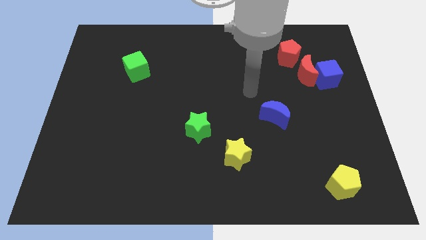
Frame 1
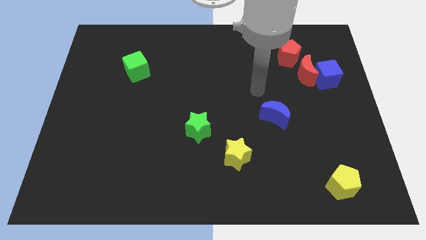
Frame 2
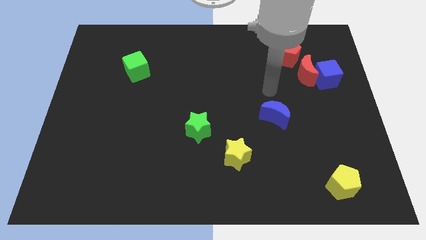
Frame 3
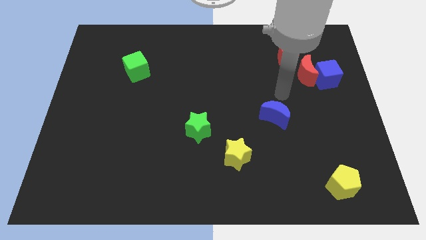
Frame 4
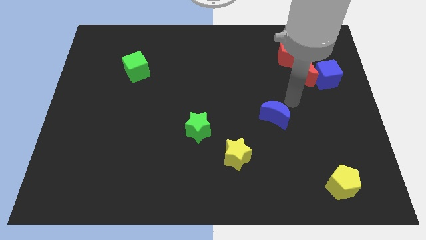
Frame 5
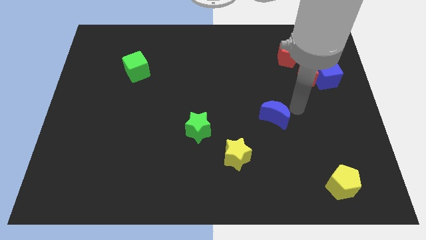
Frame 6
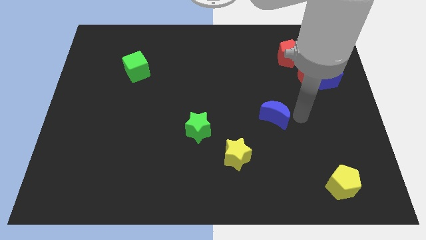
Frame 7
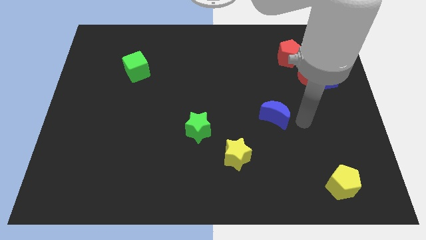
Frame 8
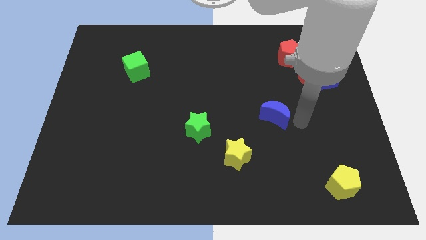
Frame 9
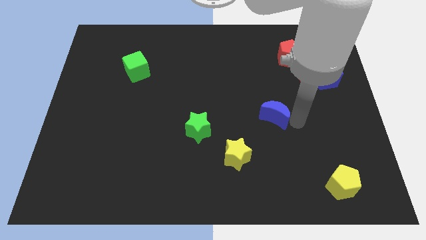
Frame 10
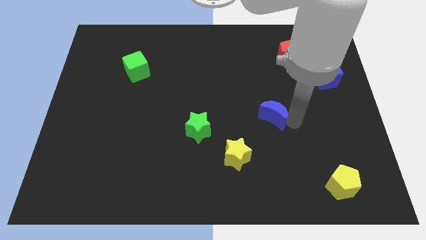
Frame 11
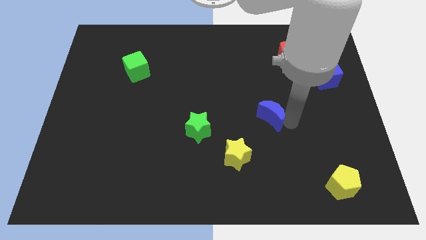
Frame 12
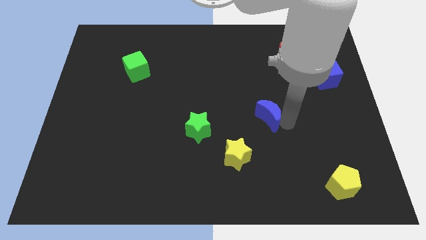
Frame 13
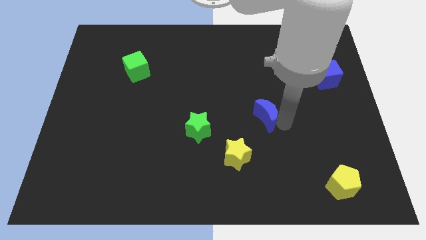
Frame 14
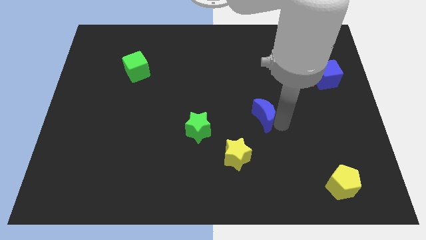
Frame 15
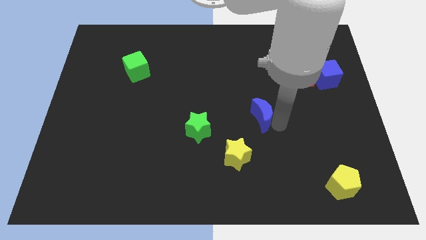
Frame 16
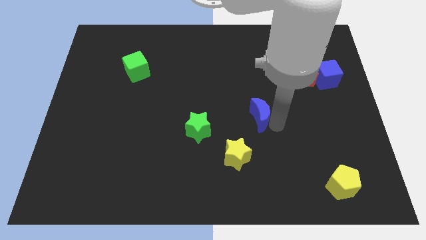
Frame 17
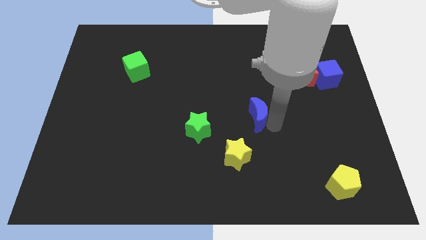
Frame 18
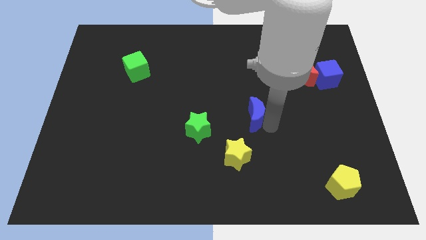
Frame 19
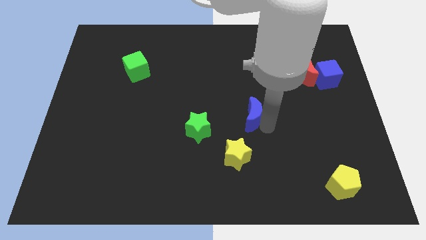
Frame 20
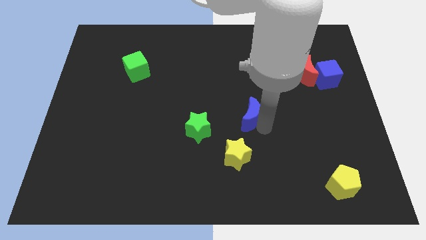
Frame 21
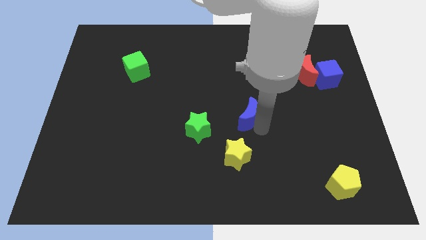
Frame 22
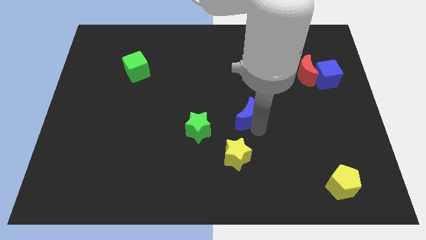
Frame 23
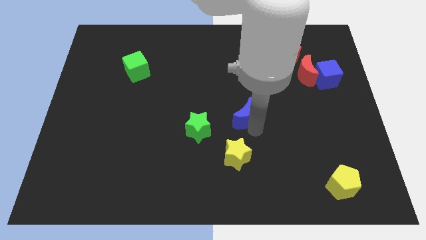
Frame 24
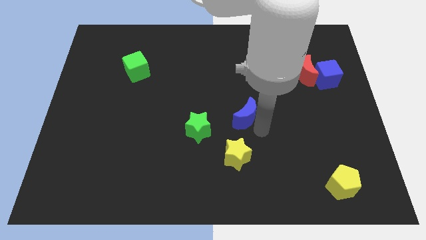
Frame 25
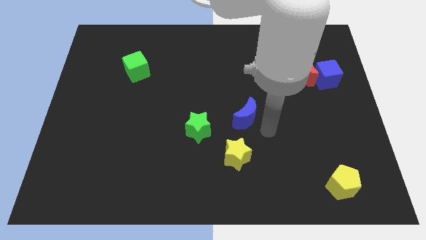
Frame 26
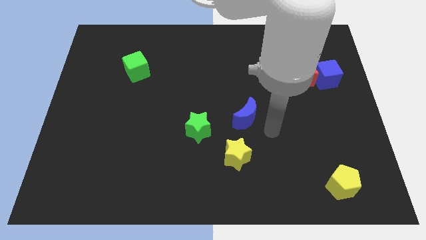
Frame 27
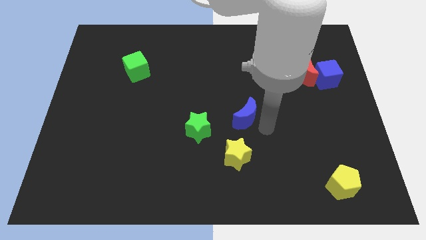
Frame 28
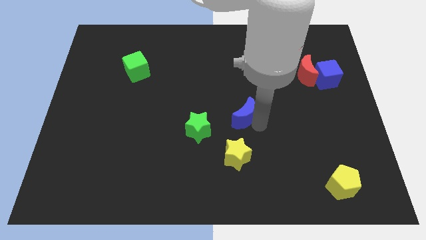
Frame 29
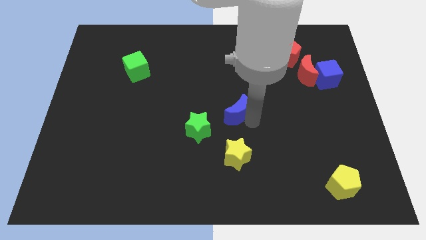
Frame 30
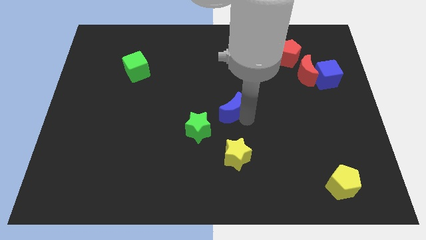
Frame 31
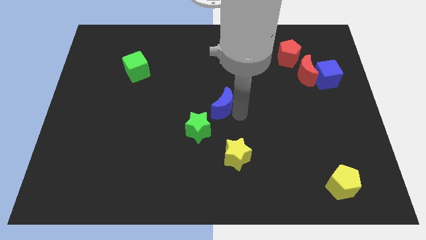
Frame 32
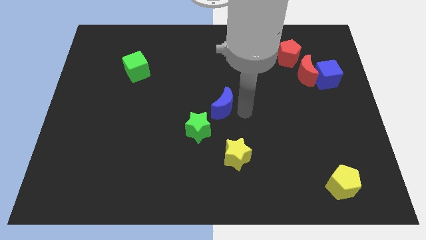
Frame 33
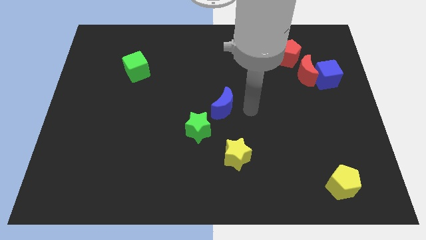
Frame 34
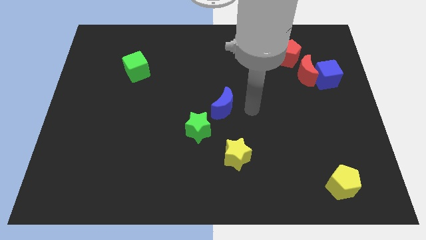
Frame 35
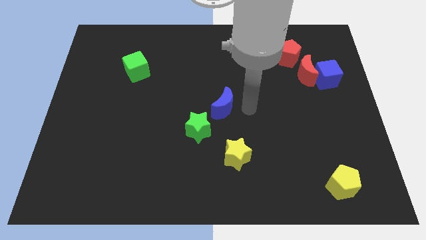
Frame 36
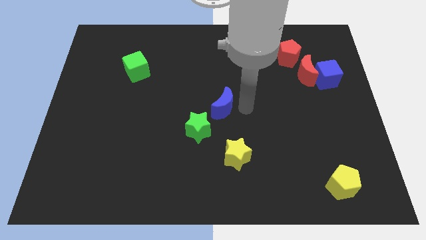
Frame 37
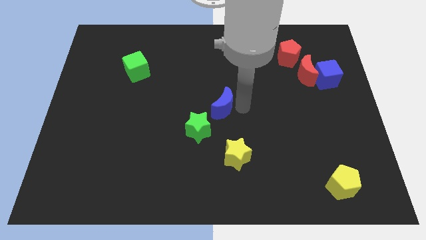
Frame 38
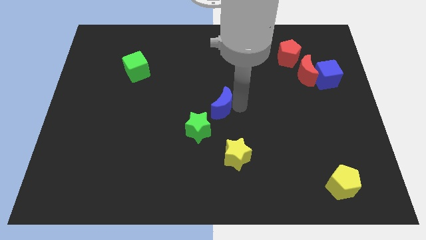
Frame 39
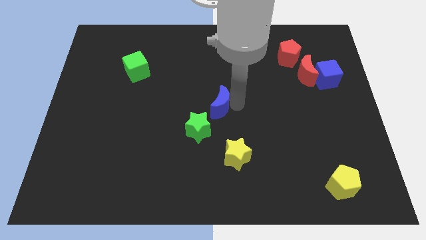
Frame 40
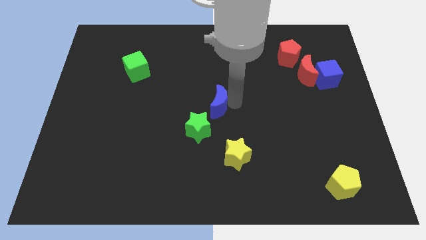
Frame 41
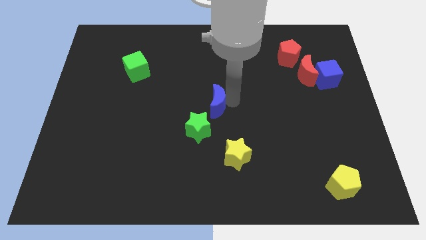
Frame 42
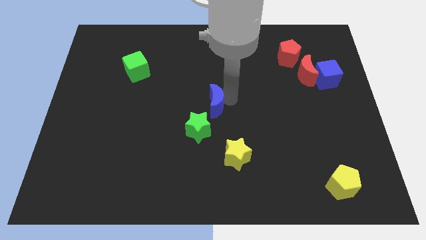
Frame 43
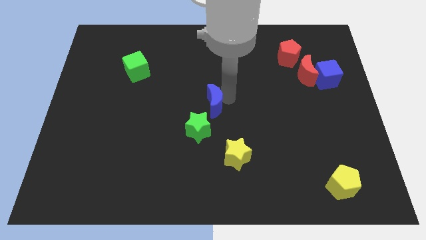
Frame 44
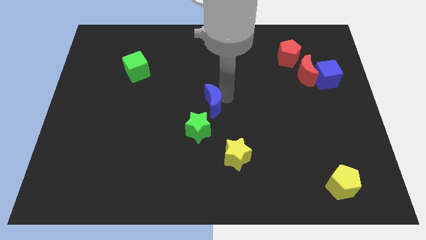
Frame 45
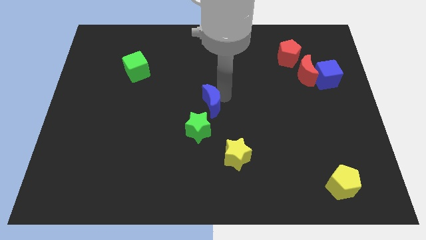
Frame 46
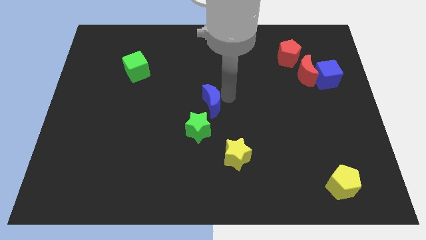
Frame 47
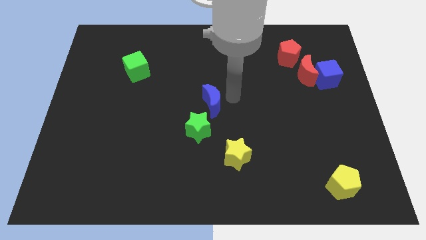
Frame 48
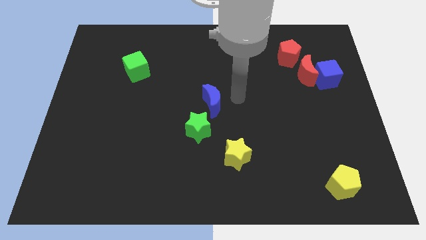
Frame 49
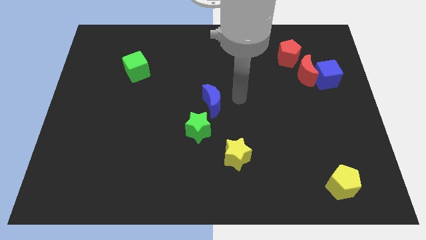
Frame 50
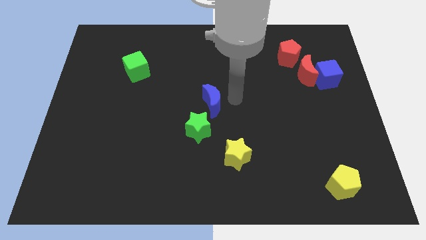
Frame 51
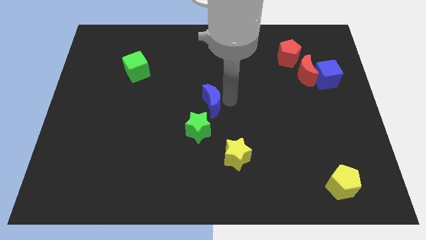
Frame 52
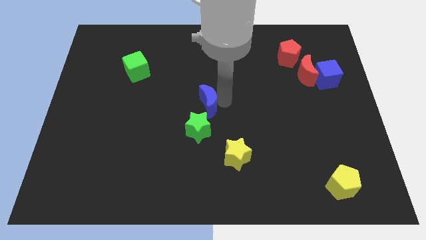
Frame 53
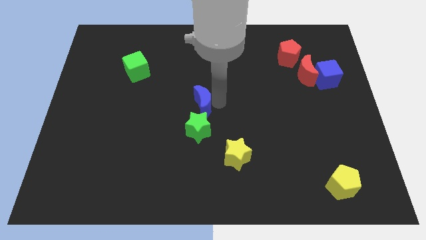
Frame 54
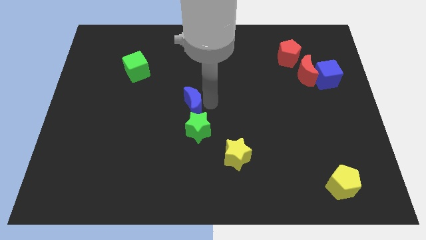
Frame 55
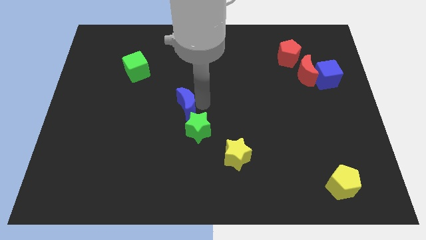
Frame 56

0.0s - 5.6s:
move the blue moon left

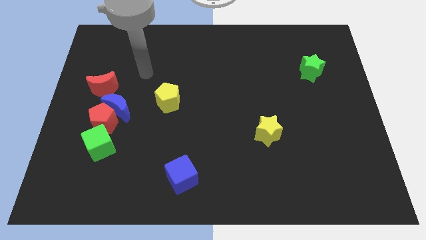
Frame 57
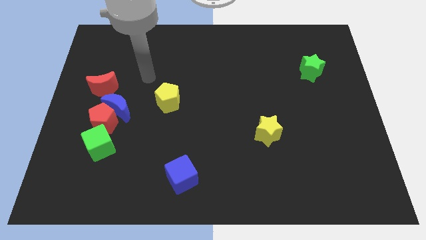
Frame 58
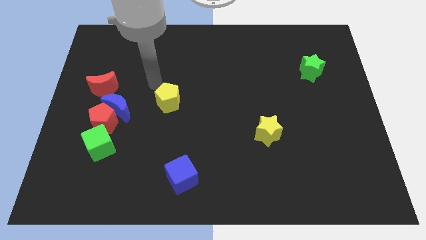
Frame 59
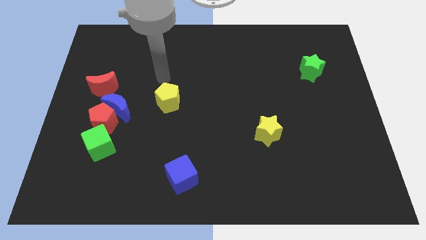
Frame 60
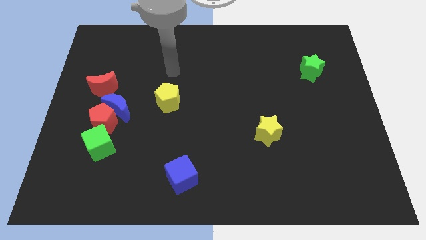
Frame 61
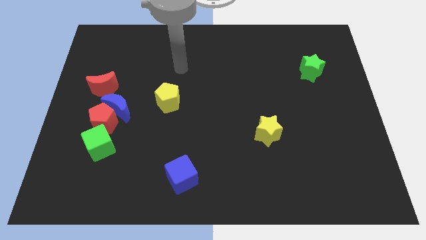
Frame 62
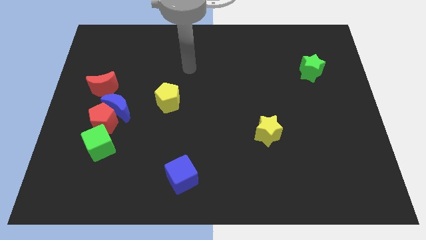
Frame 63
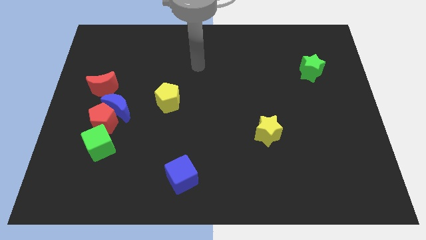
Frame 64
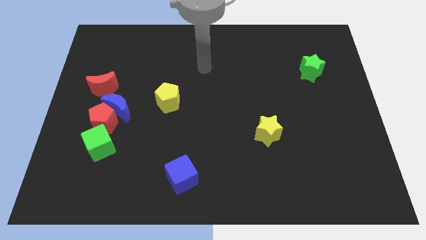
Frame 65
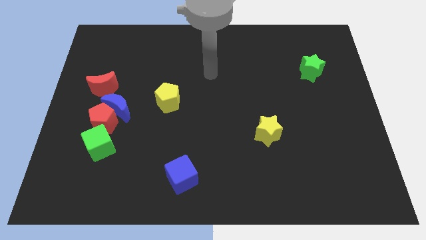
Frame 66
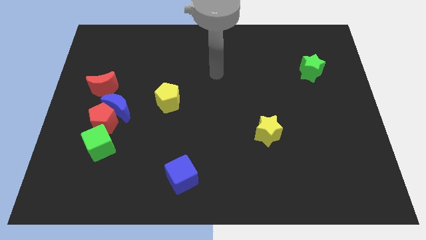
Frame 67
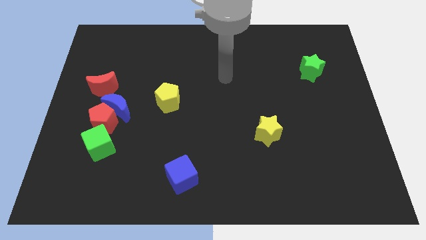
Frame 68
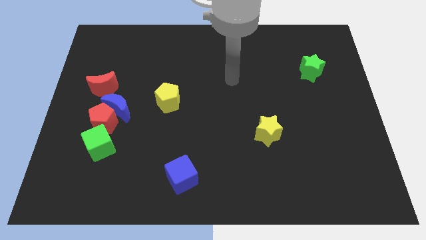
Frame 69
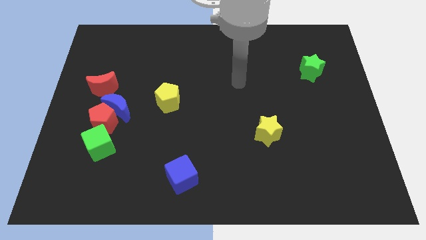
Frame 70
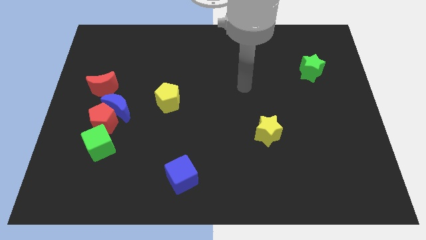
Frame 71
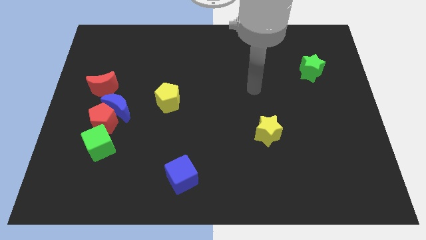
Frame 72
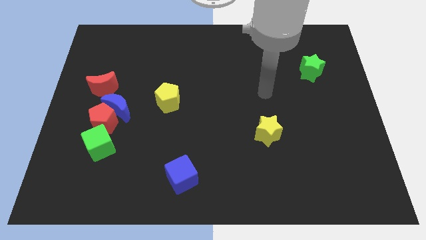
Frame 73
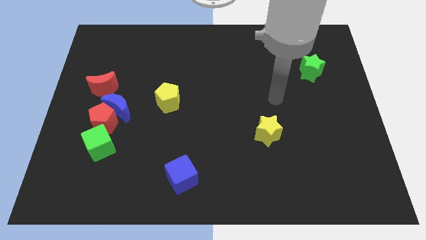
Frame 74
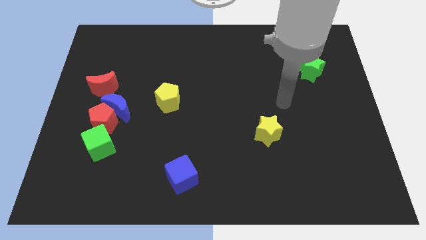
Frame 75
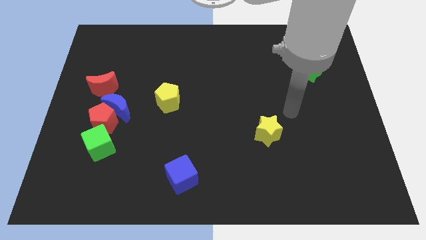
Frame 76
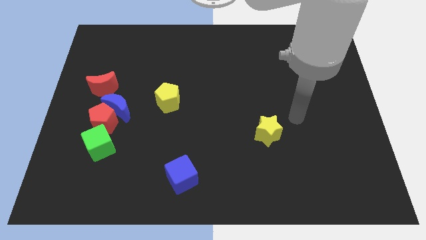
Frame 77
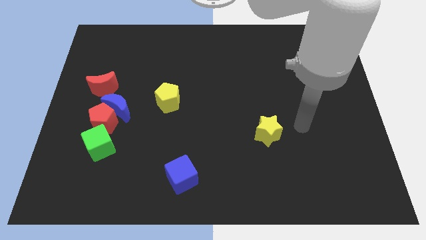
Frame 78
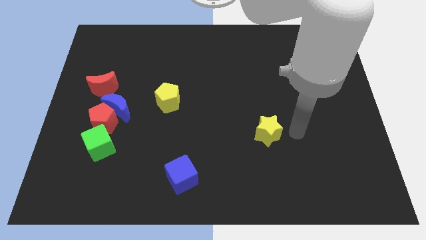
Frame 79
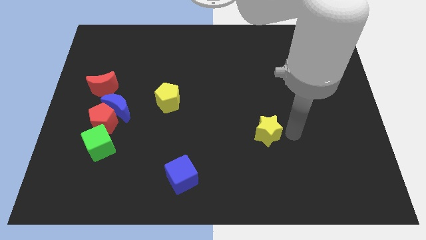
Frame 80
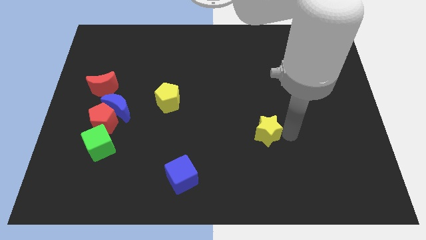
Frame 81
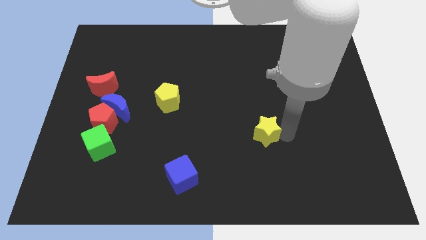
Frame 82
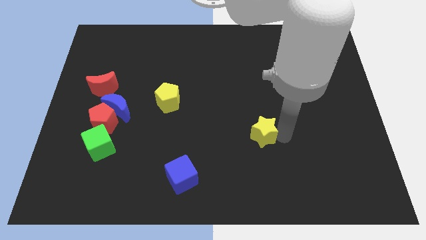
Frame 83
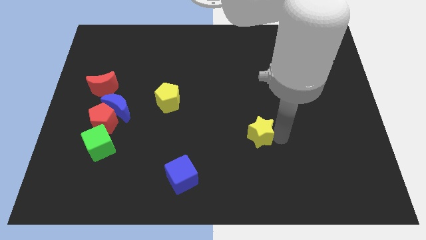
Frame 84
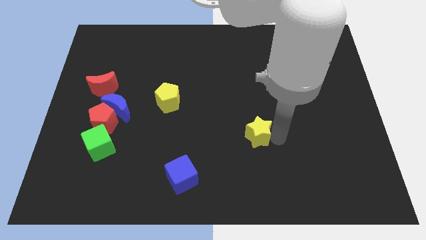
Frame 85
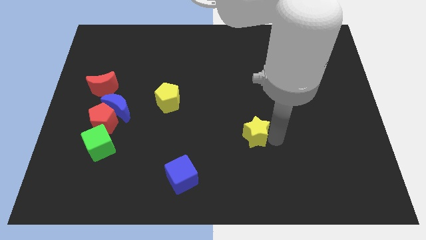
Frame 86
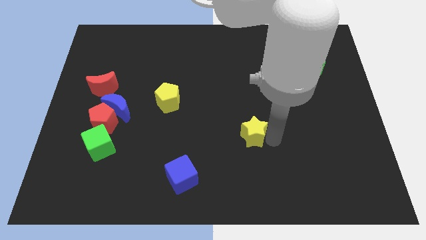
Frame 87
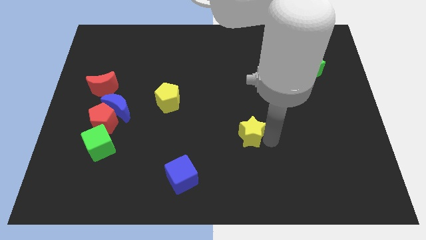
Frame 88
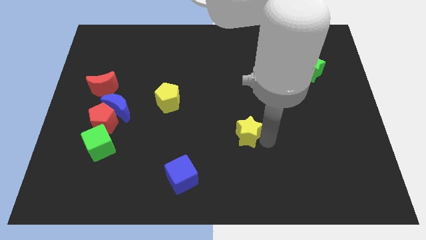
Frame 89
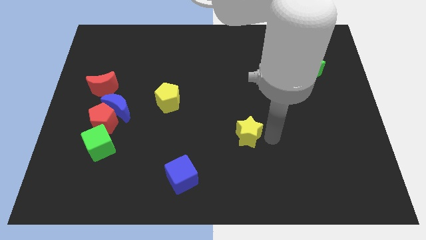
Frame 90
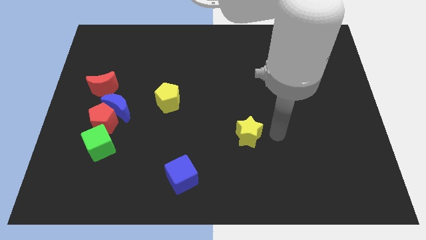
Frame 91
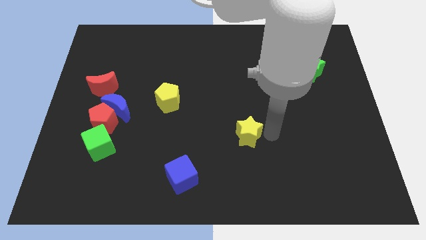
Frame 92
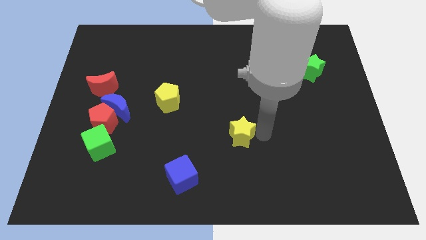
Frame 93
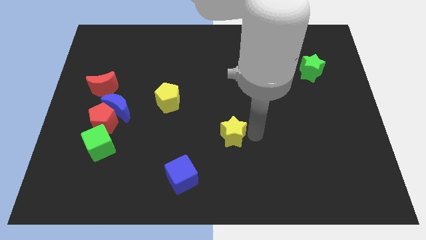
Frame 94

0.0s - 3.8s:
move the yellow star to the left somewhat
